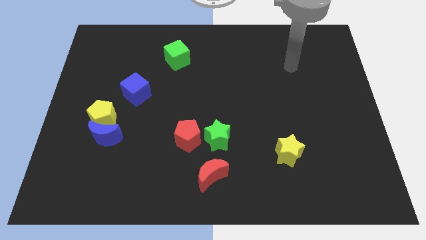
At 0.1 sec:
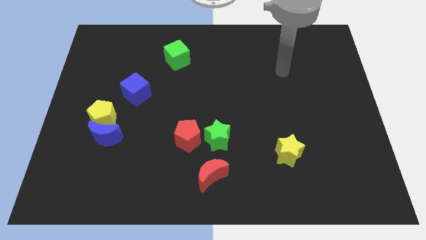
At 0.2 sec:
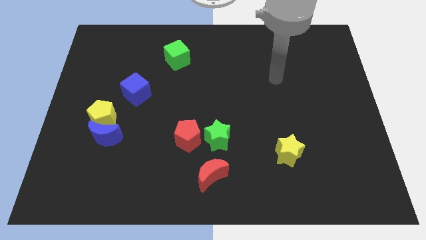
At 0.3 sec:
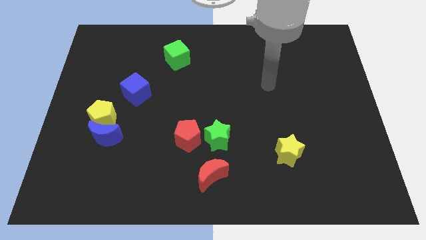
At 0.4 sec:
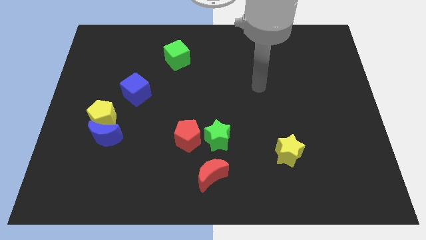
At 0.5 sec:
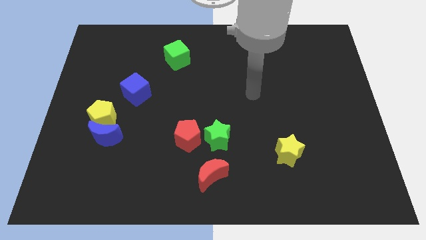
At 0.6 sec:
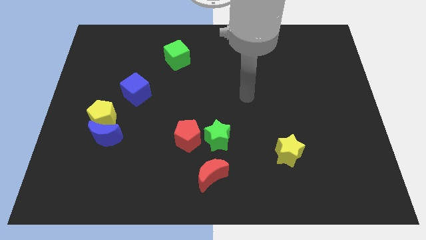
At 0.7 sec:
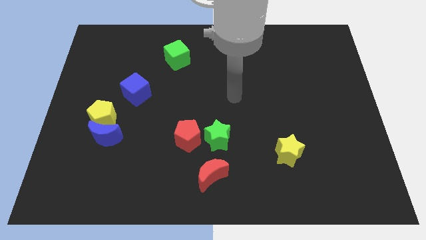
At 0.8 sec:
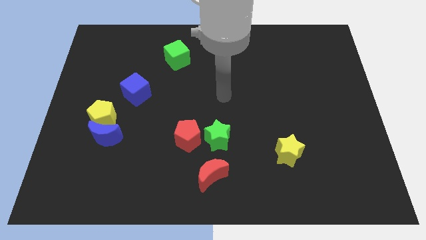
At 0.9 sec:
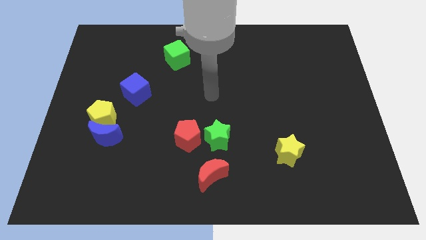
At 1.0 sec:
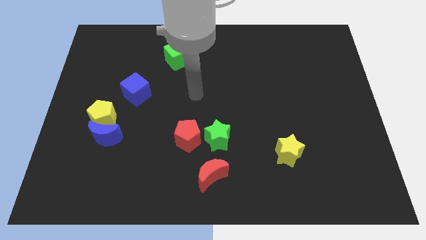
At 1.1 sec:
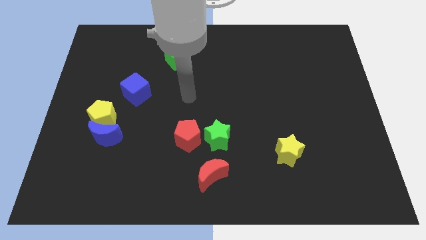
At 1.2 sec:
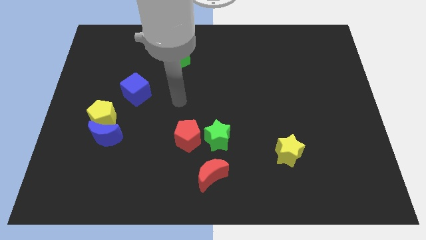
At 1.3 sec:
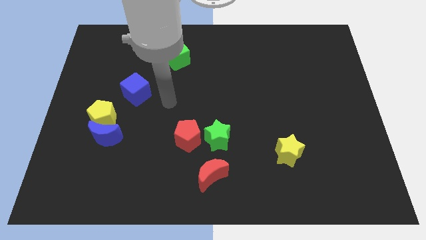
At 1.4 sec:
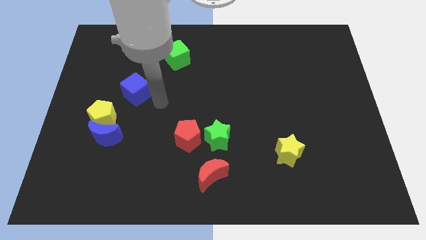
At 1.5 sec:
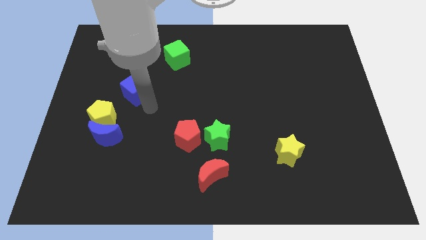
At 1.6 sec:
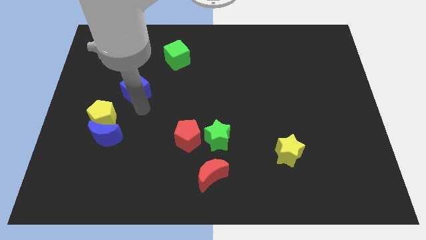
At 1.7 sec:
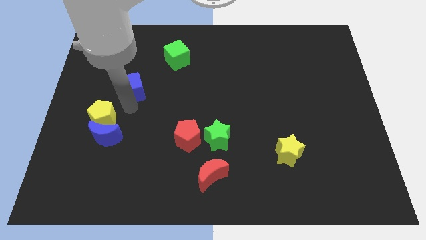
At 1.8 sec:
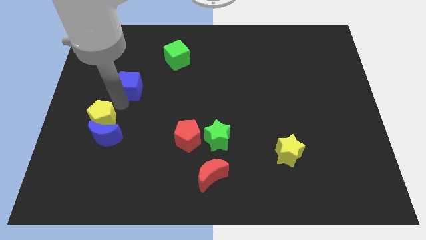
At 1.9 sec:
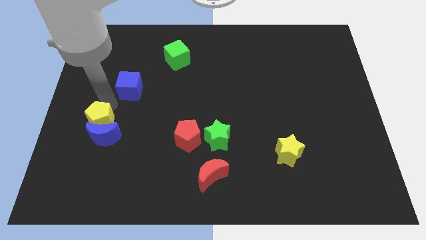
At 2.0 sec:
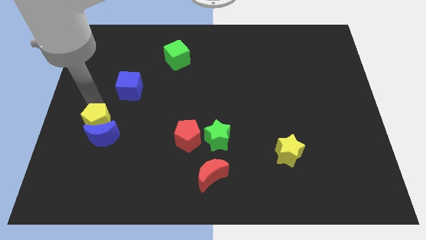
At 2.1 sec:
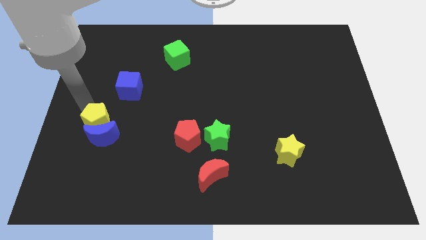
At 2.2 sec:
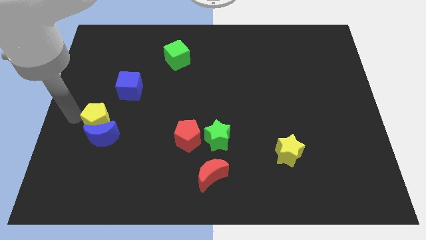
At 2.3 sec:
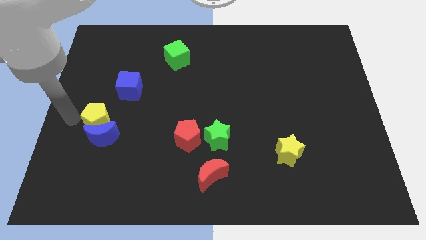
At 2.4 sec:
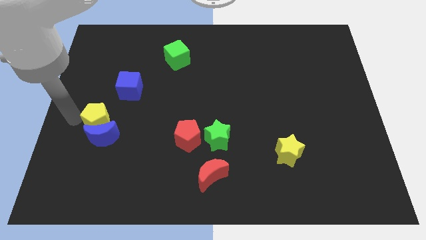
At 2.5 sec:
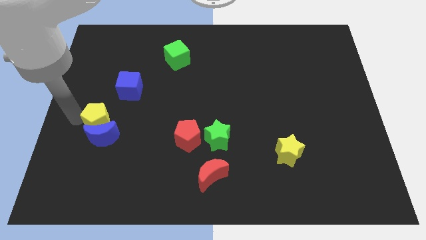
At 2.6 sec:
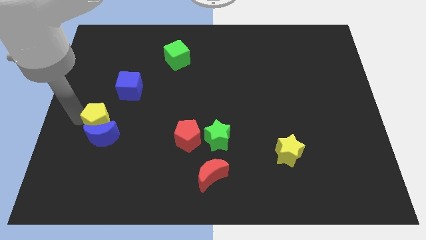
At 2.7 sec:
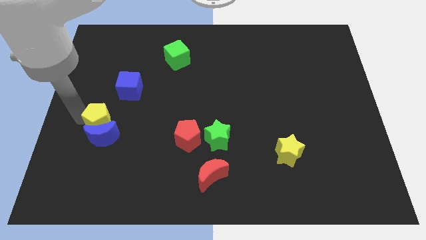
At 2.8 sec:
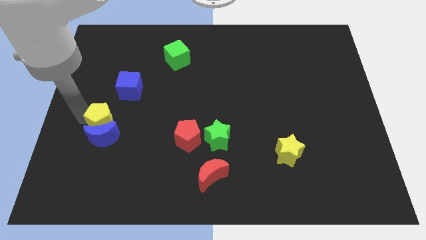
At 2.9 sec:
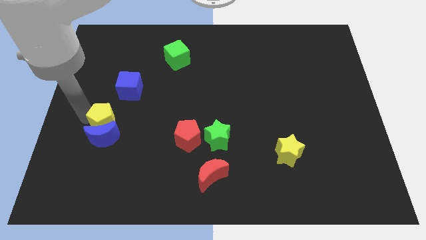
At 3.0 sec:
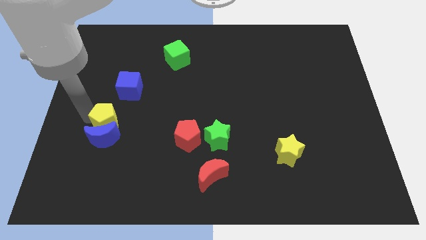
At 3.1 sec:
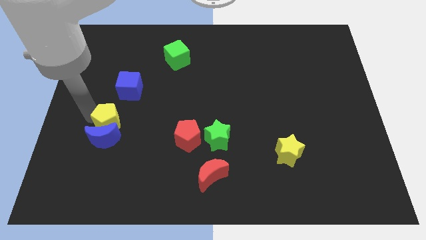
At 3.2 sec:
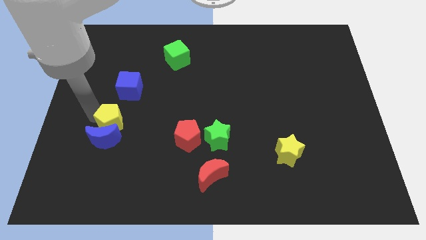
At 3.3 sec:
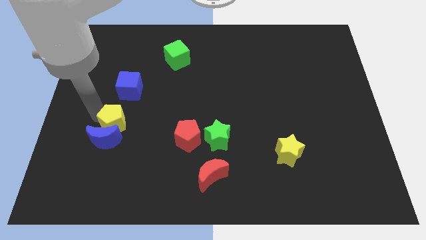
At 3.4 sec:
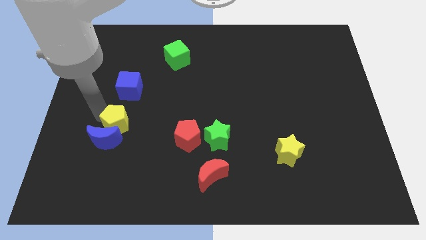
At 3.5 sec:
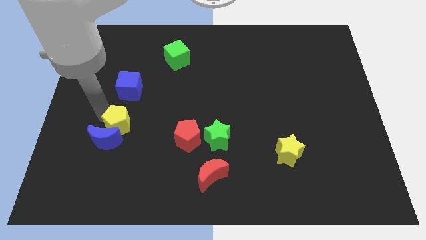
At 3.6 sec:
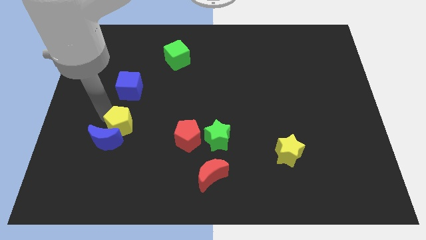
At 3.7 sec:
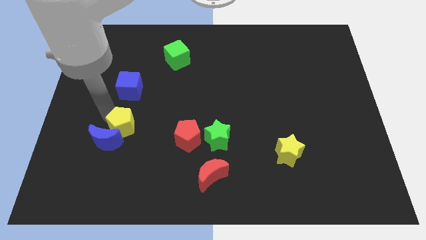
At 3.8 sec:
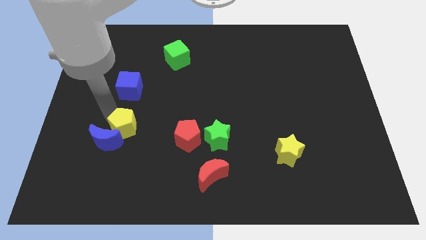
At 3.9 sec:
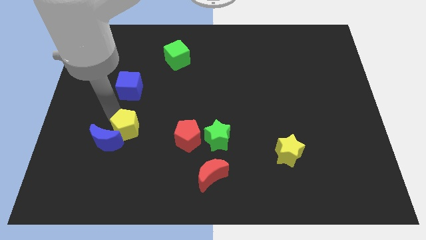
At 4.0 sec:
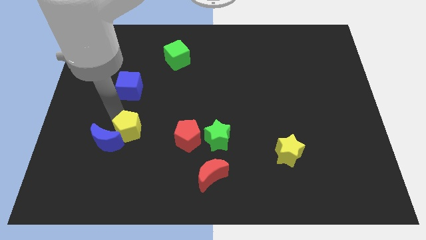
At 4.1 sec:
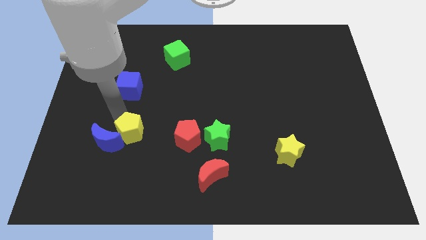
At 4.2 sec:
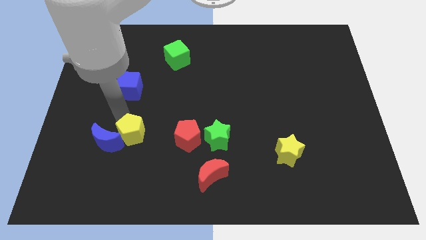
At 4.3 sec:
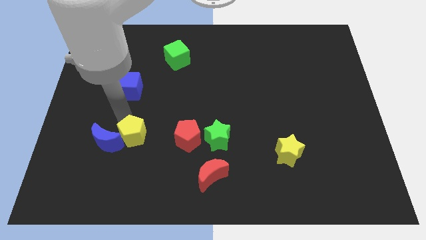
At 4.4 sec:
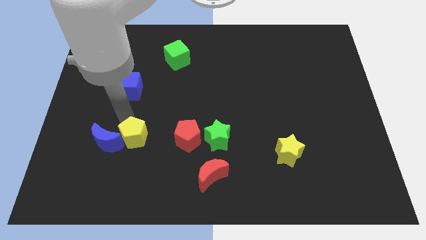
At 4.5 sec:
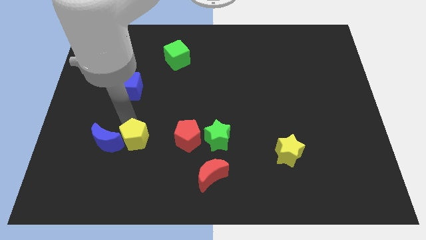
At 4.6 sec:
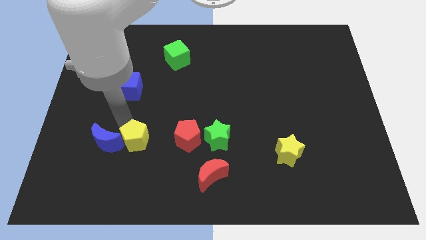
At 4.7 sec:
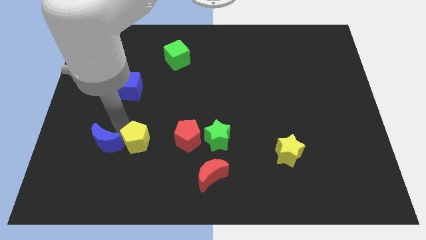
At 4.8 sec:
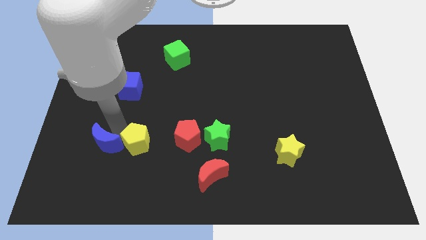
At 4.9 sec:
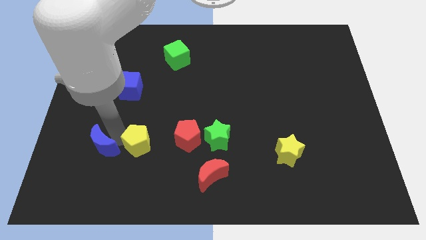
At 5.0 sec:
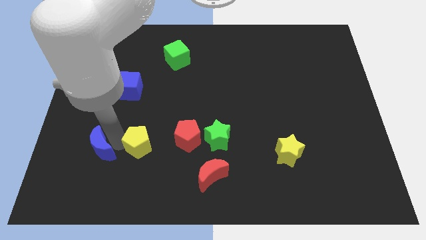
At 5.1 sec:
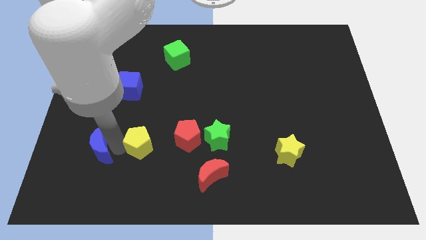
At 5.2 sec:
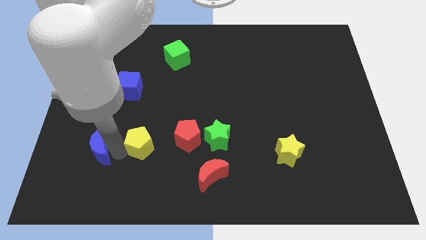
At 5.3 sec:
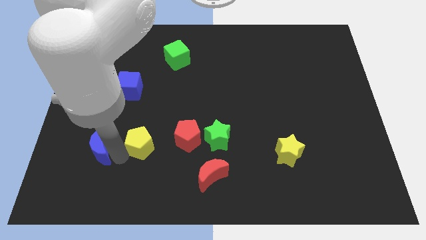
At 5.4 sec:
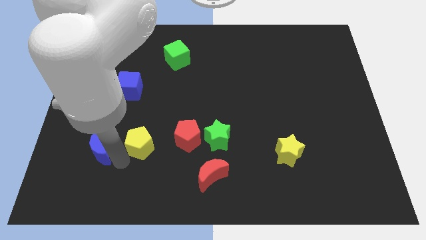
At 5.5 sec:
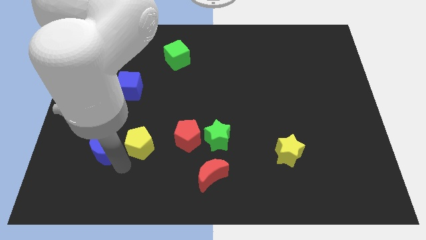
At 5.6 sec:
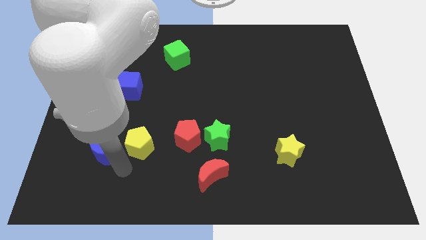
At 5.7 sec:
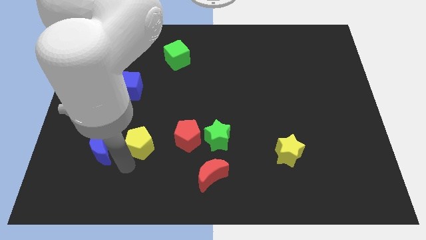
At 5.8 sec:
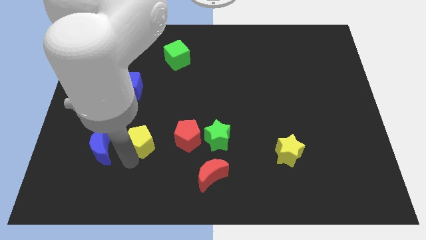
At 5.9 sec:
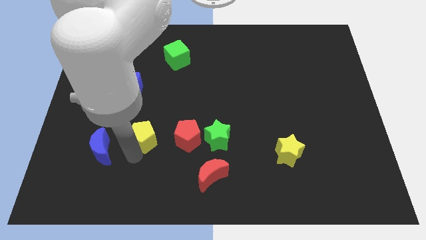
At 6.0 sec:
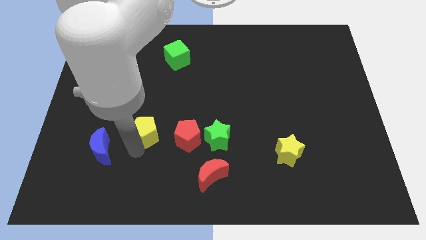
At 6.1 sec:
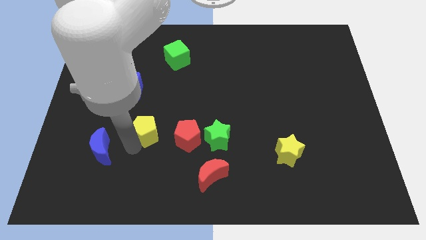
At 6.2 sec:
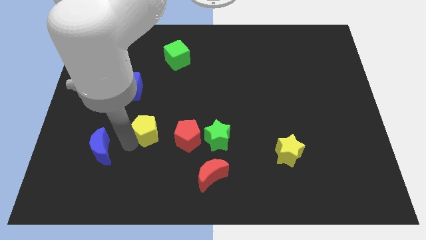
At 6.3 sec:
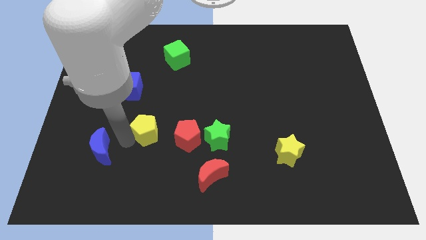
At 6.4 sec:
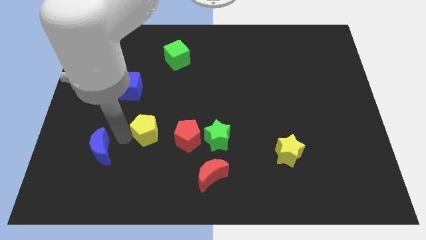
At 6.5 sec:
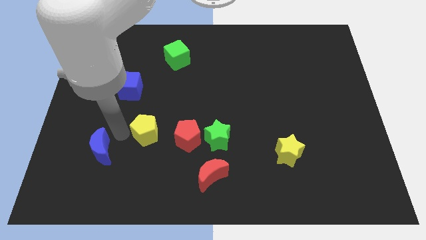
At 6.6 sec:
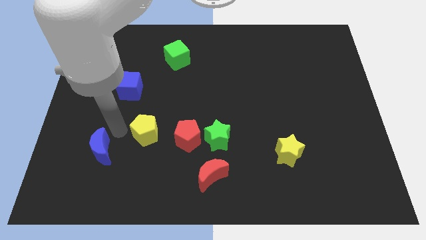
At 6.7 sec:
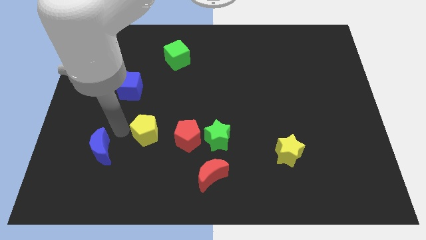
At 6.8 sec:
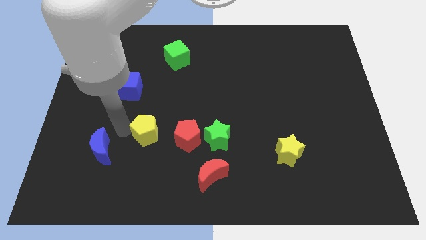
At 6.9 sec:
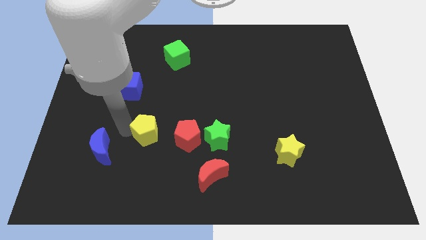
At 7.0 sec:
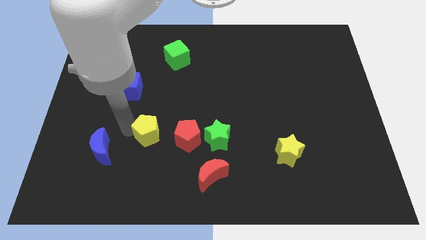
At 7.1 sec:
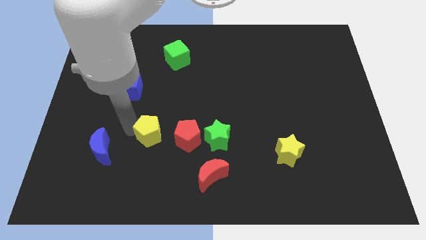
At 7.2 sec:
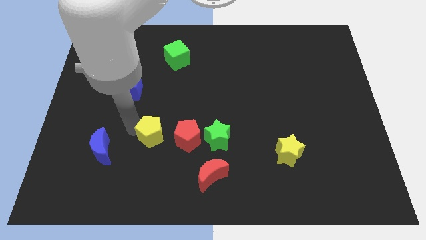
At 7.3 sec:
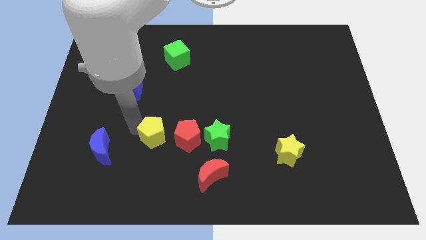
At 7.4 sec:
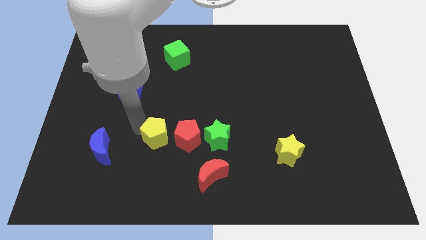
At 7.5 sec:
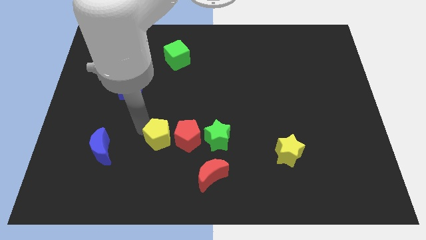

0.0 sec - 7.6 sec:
put the yellow pentagon towards the red pentagon

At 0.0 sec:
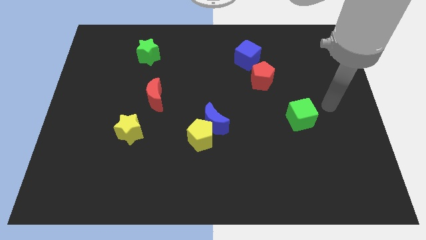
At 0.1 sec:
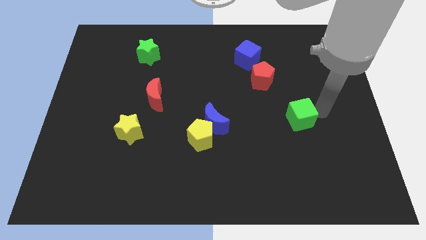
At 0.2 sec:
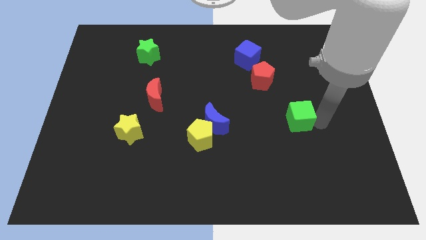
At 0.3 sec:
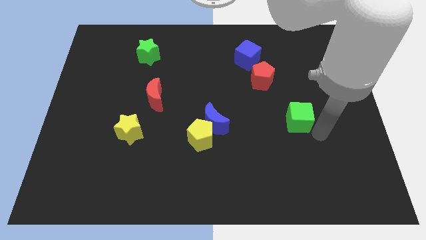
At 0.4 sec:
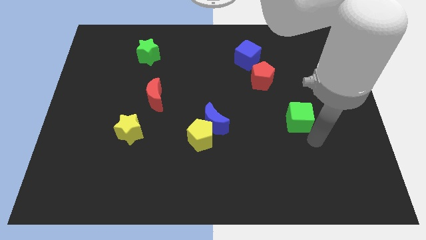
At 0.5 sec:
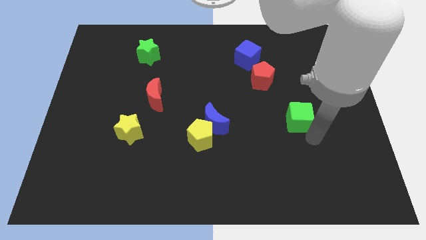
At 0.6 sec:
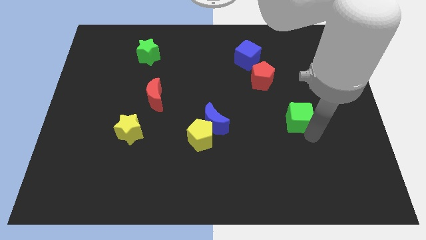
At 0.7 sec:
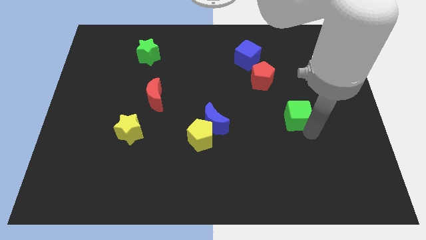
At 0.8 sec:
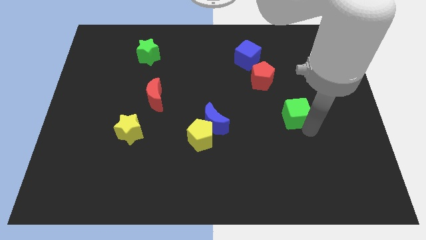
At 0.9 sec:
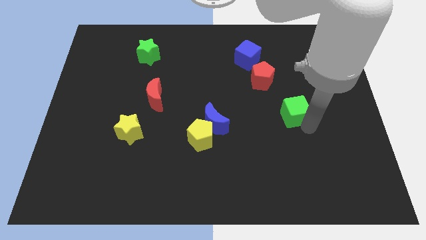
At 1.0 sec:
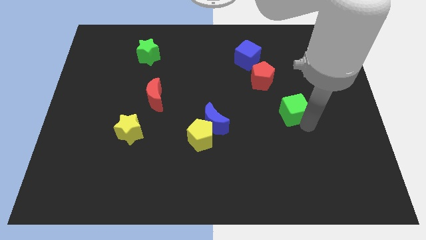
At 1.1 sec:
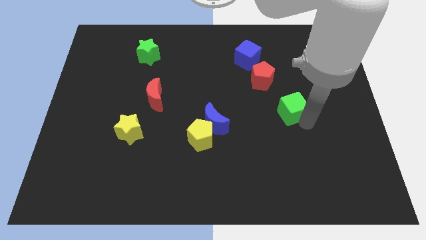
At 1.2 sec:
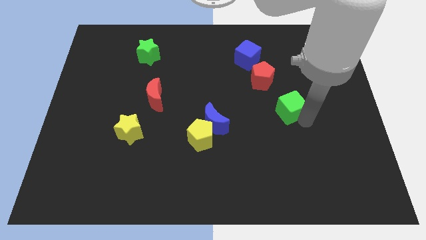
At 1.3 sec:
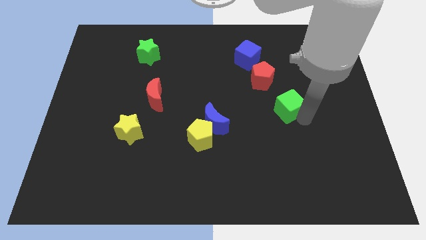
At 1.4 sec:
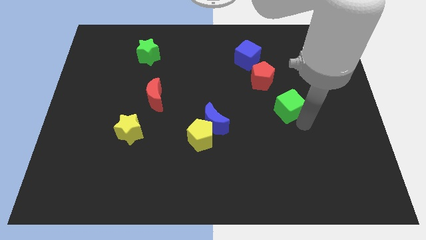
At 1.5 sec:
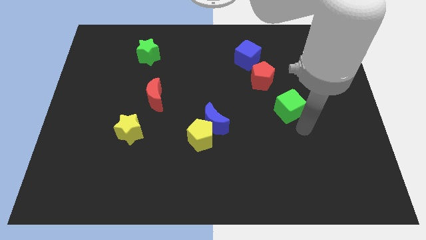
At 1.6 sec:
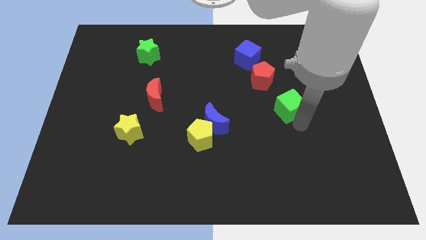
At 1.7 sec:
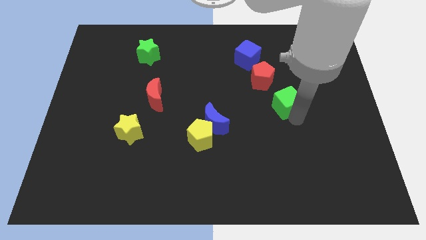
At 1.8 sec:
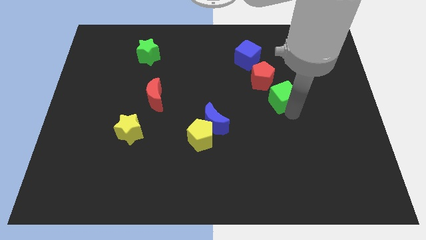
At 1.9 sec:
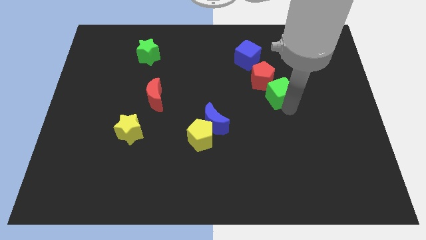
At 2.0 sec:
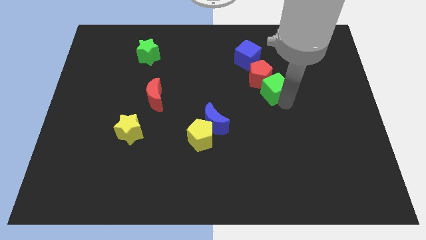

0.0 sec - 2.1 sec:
move the green cube towards the red pentagon
